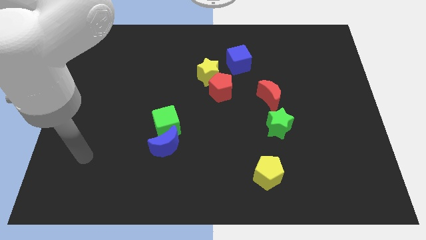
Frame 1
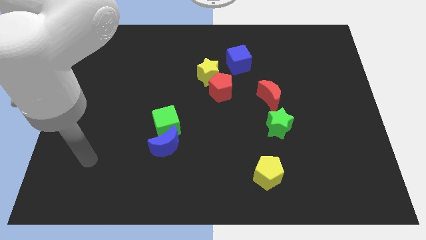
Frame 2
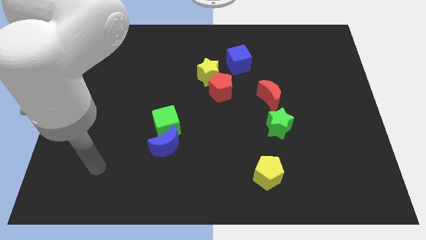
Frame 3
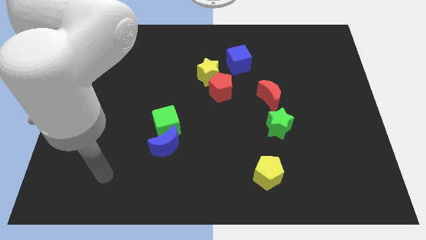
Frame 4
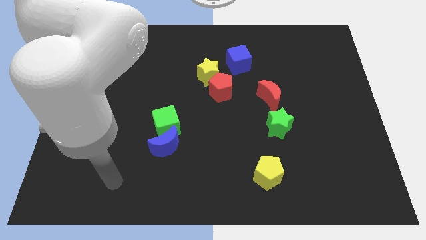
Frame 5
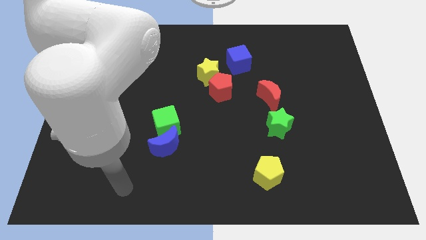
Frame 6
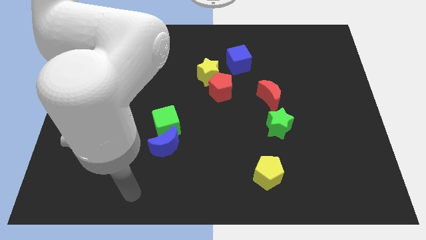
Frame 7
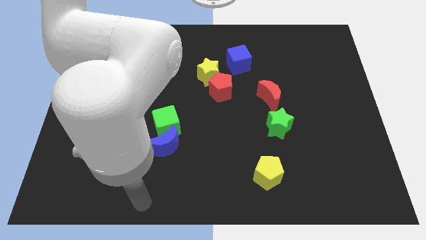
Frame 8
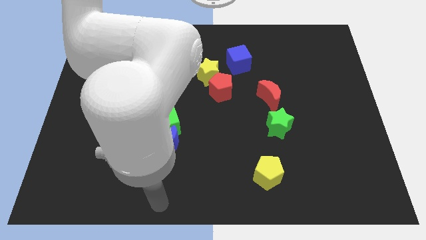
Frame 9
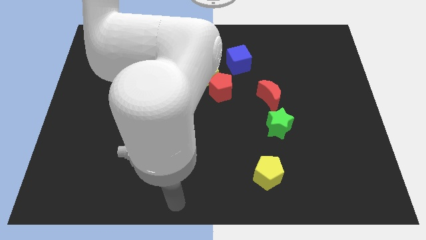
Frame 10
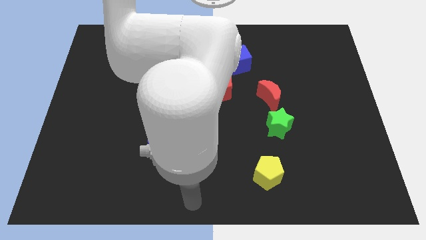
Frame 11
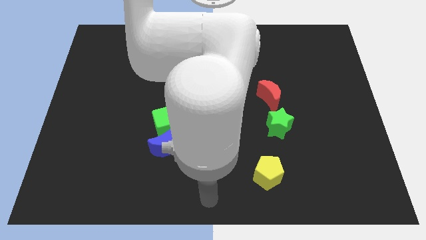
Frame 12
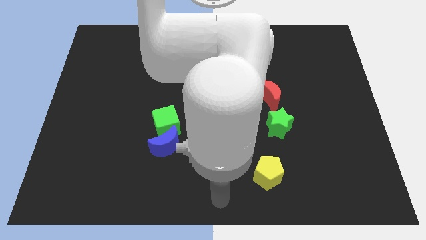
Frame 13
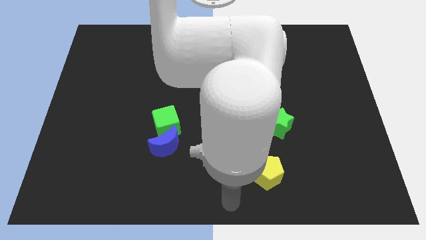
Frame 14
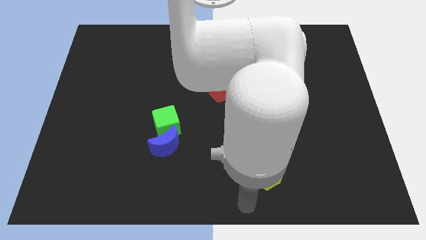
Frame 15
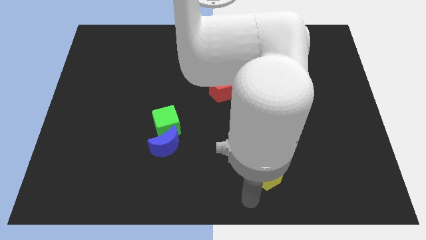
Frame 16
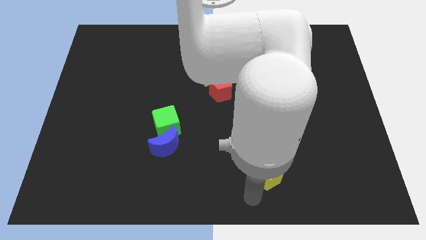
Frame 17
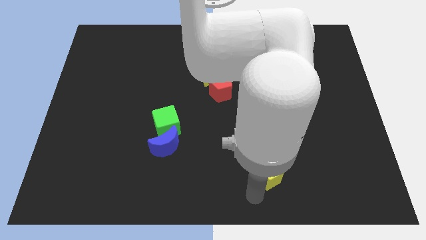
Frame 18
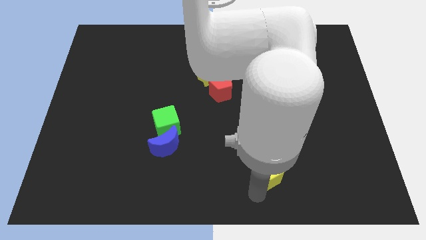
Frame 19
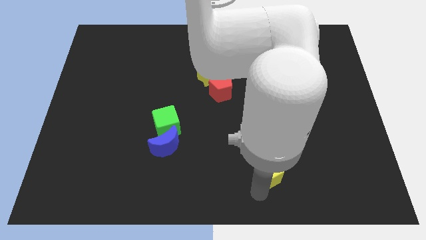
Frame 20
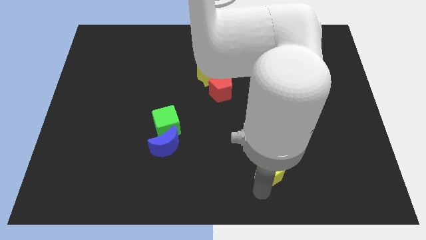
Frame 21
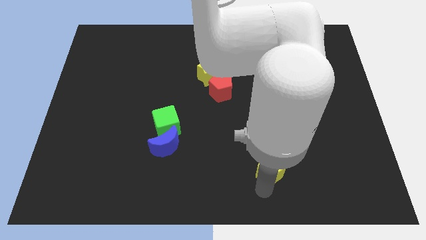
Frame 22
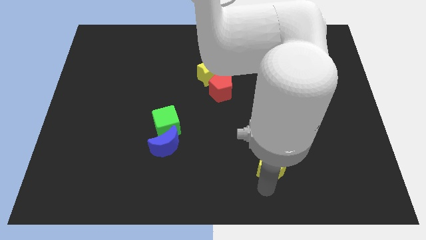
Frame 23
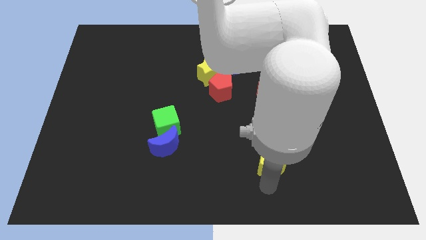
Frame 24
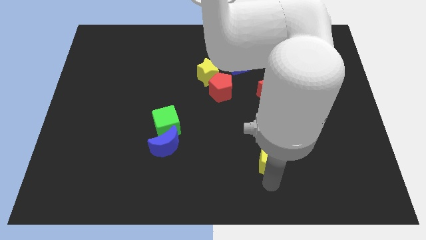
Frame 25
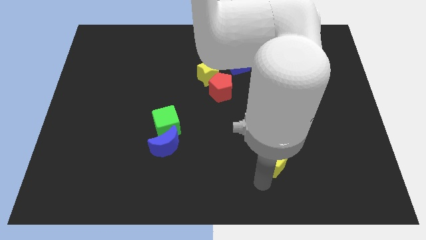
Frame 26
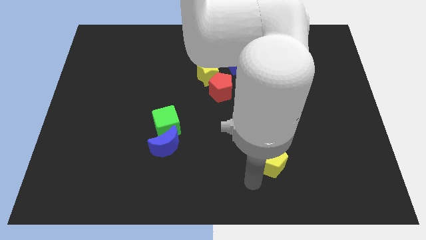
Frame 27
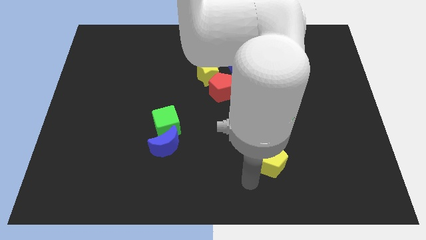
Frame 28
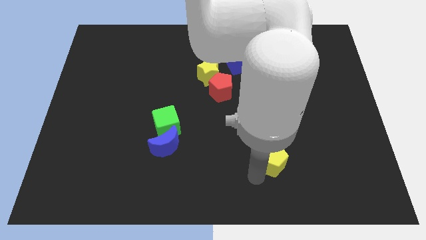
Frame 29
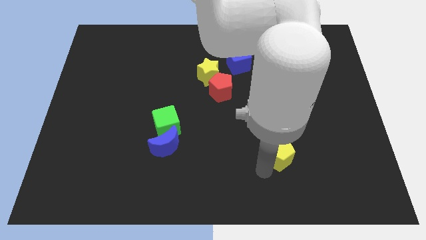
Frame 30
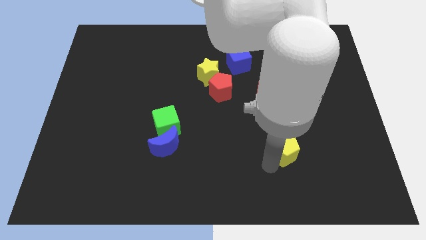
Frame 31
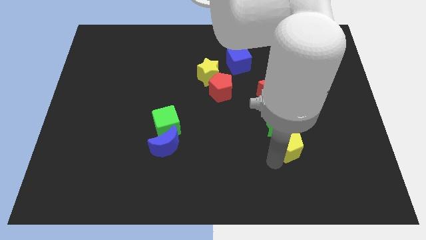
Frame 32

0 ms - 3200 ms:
move the yellow pentagon diagonally up and right a little

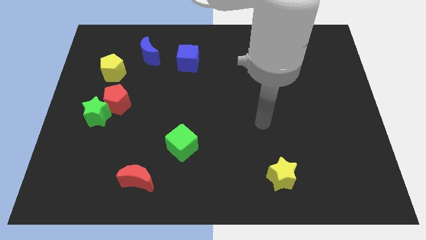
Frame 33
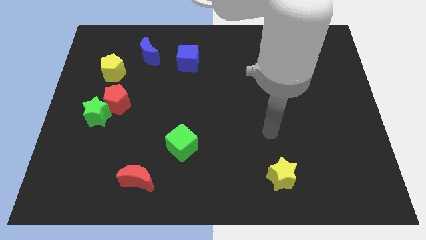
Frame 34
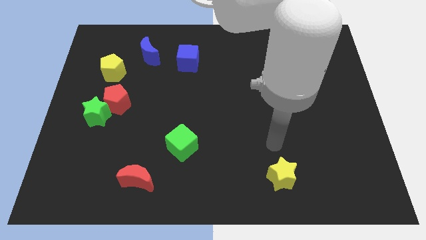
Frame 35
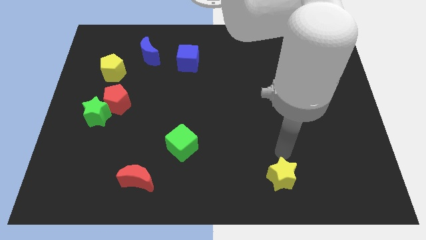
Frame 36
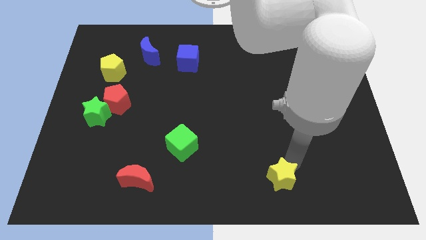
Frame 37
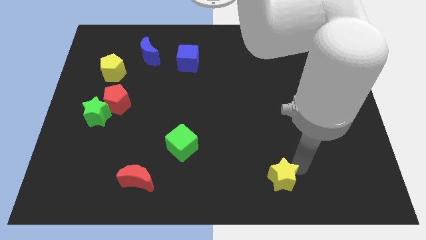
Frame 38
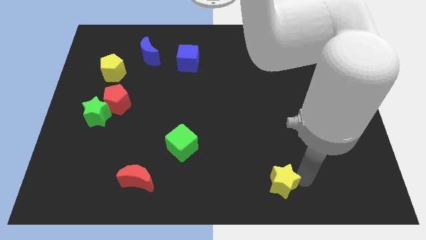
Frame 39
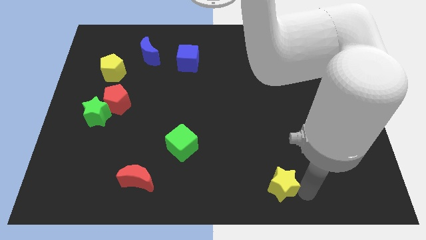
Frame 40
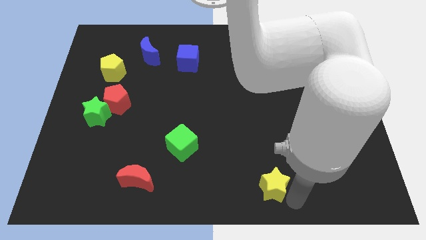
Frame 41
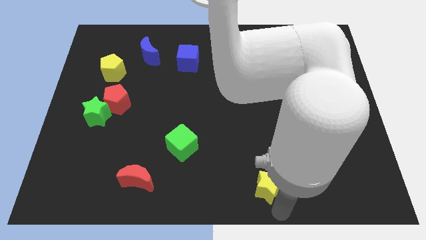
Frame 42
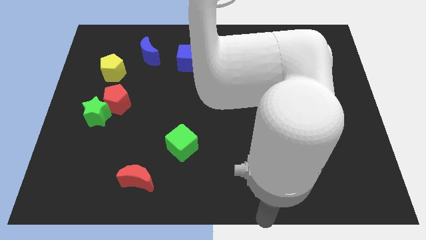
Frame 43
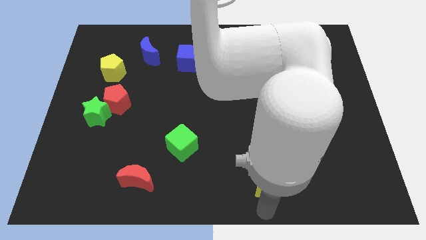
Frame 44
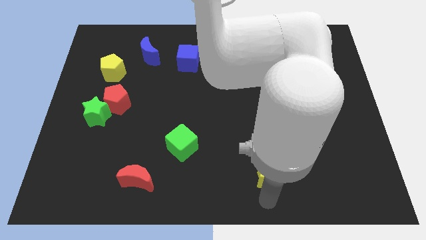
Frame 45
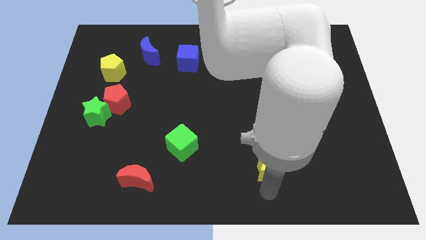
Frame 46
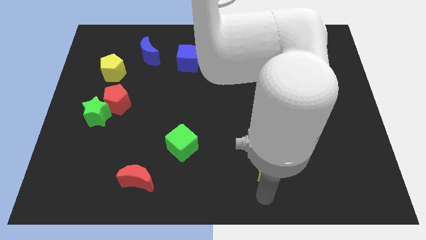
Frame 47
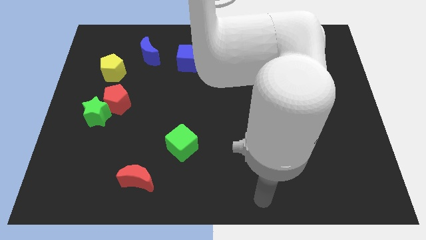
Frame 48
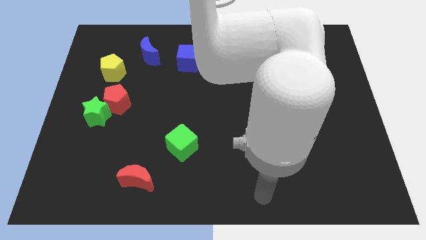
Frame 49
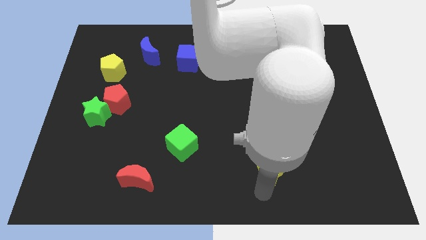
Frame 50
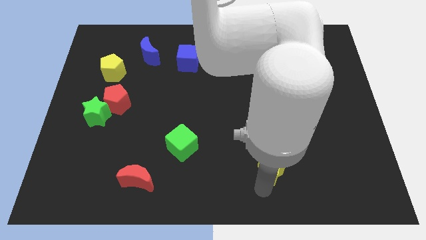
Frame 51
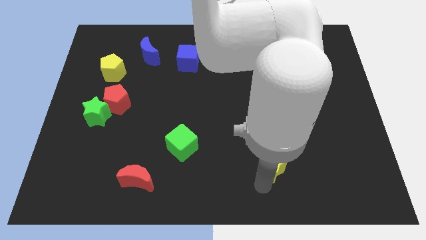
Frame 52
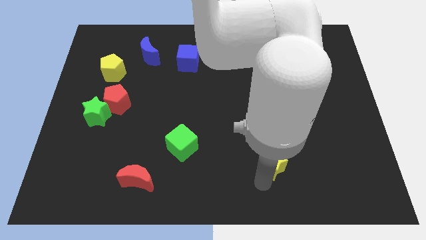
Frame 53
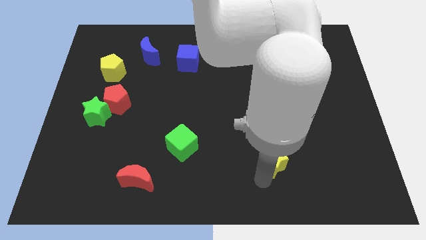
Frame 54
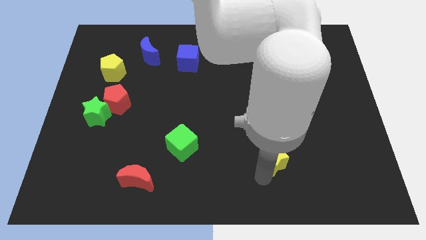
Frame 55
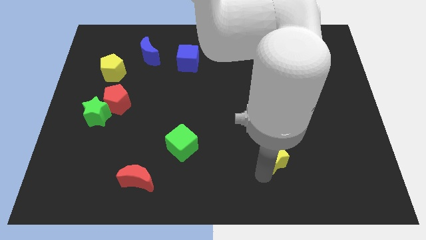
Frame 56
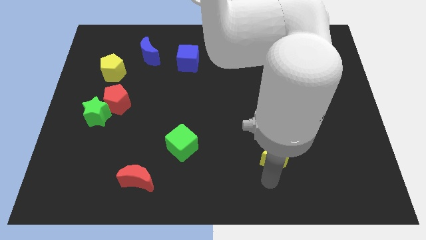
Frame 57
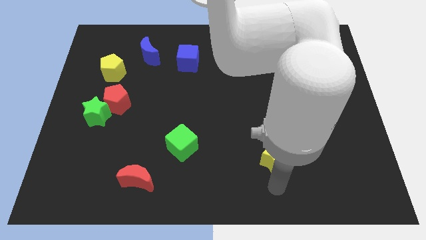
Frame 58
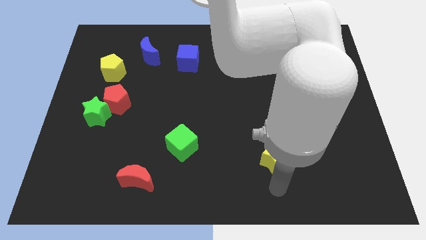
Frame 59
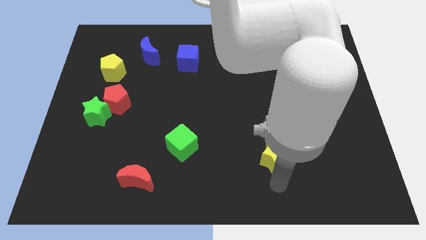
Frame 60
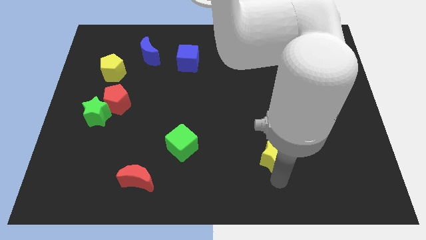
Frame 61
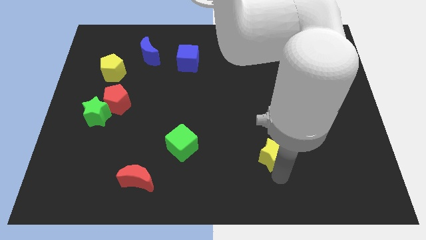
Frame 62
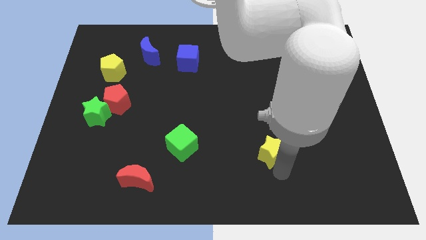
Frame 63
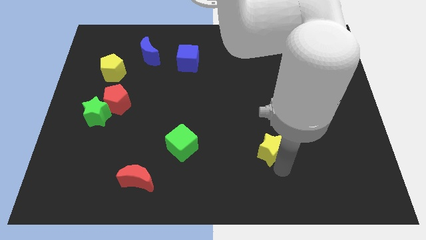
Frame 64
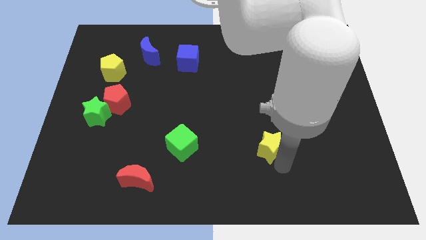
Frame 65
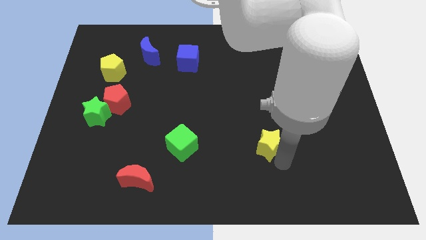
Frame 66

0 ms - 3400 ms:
push the yellow star slightly up

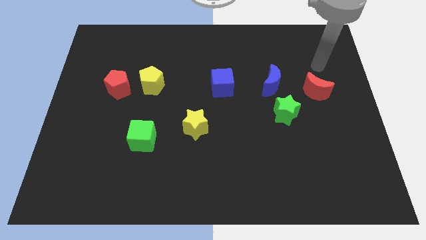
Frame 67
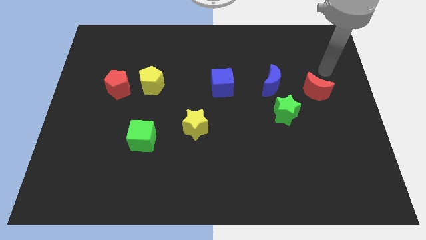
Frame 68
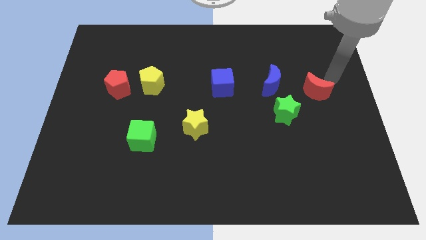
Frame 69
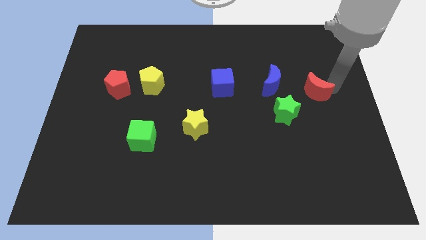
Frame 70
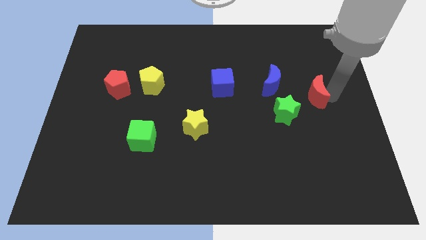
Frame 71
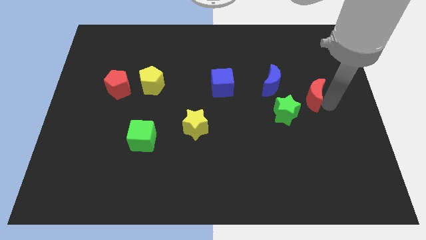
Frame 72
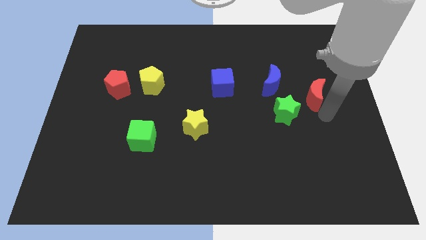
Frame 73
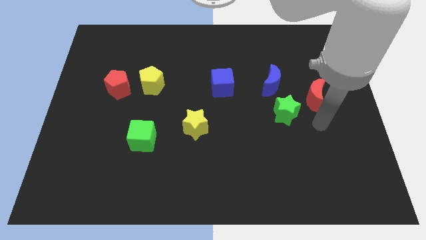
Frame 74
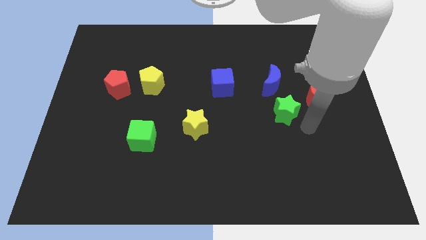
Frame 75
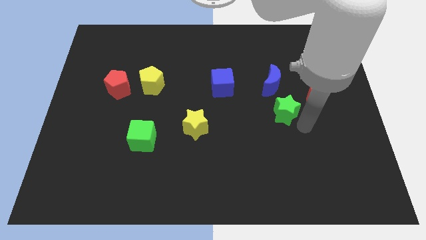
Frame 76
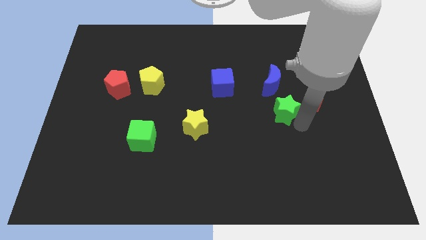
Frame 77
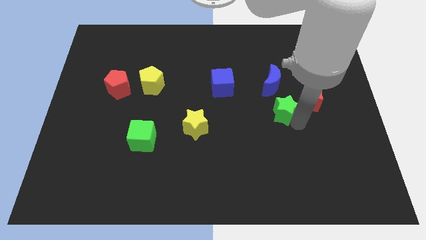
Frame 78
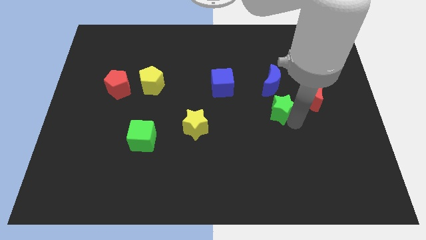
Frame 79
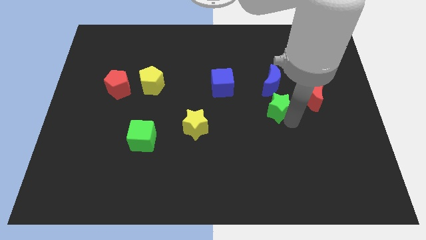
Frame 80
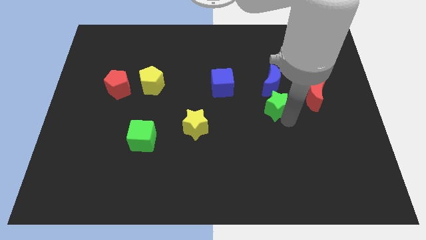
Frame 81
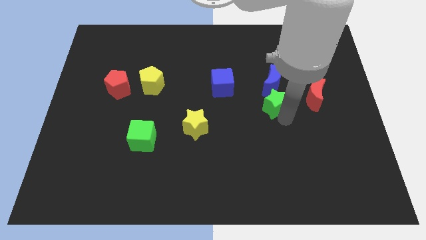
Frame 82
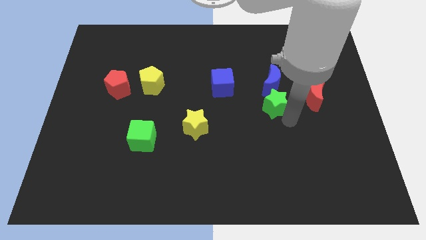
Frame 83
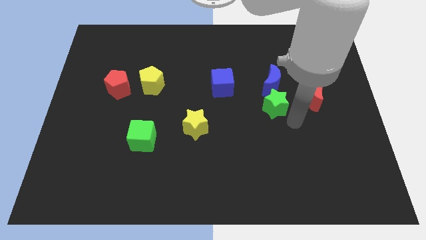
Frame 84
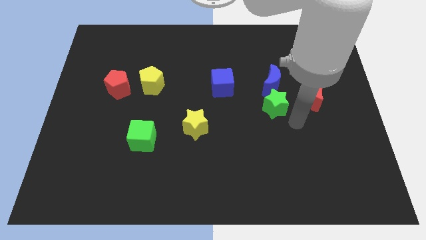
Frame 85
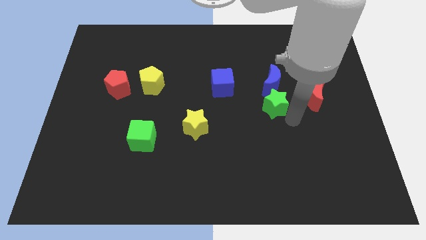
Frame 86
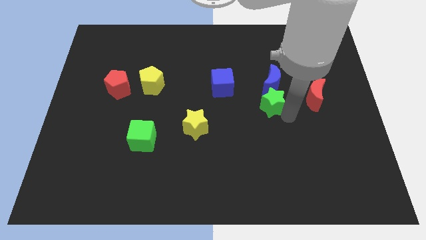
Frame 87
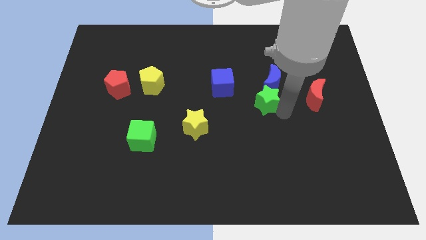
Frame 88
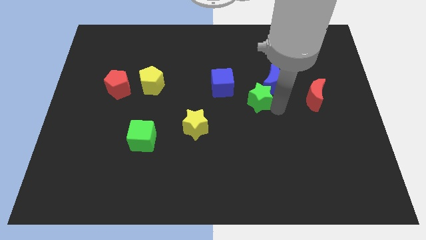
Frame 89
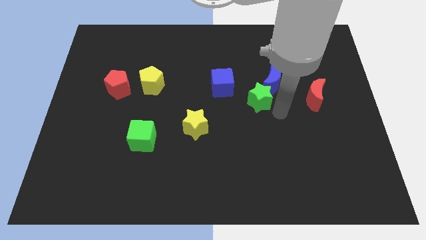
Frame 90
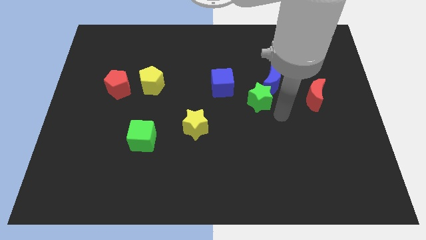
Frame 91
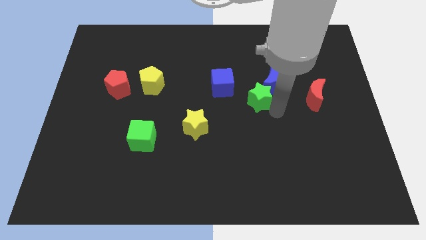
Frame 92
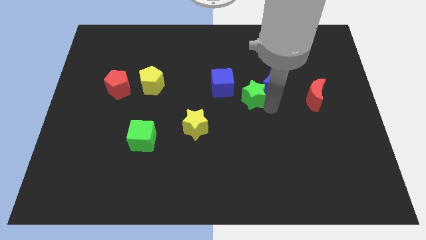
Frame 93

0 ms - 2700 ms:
push the green star a little bit upwards and left
